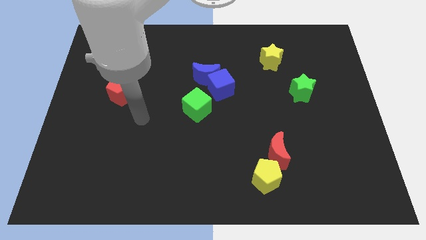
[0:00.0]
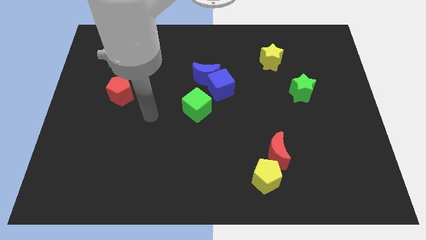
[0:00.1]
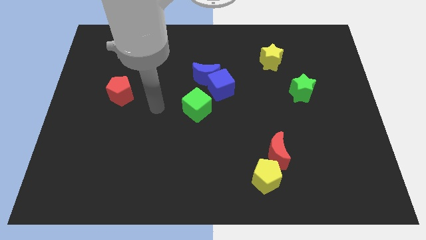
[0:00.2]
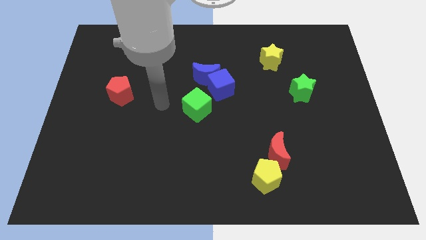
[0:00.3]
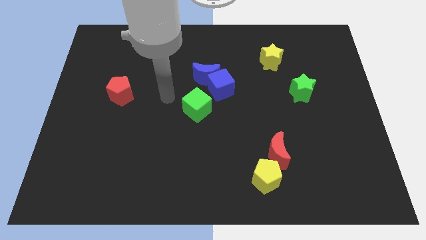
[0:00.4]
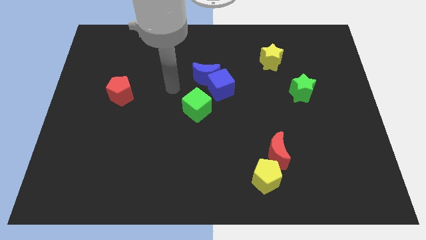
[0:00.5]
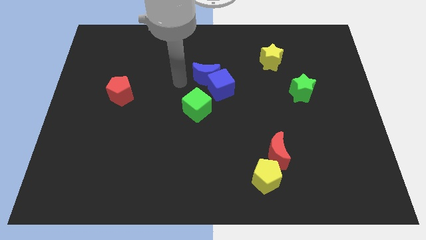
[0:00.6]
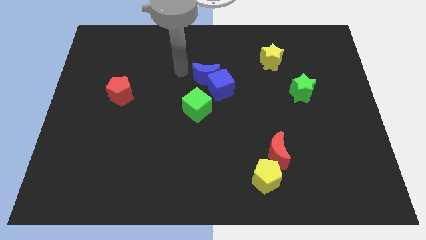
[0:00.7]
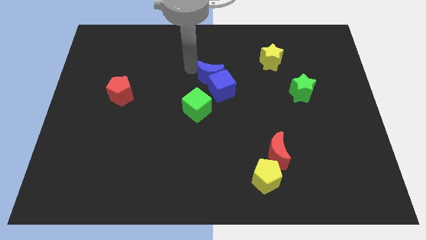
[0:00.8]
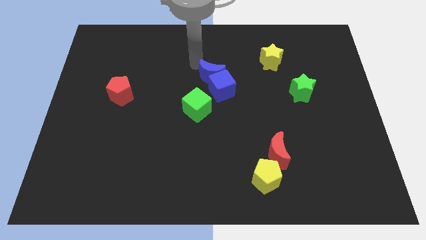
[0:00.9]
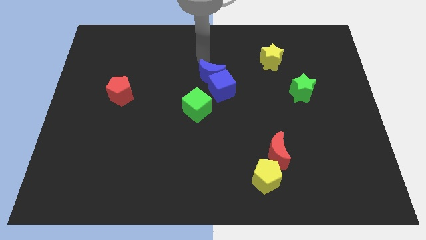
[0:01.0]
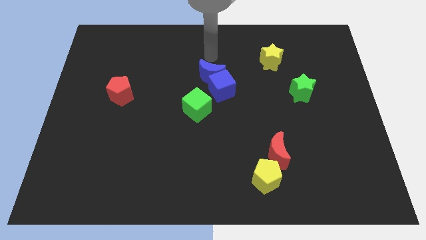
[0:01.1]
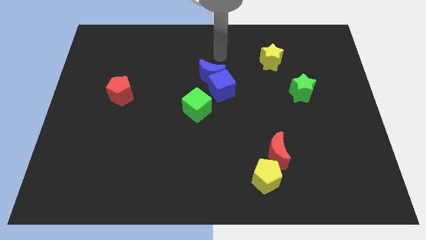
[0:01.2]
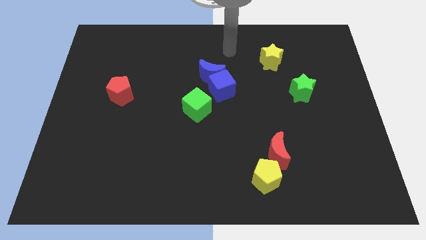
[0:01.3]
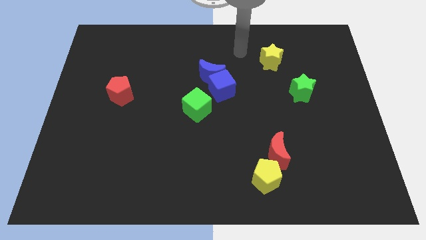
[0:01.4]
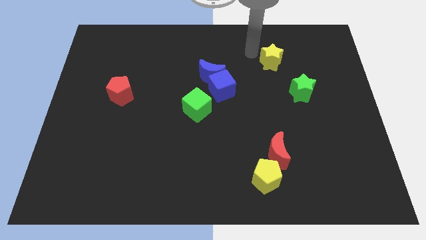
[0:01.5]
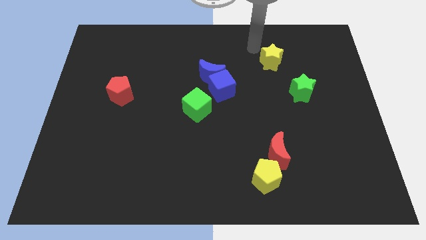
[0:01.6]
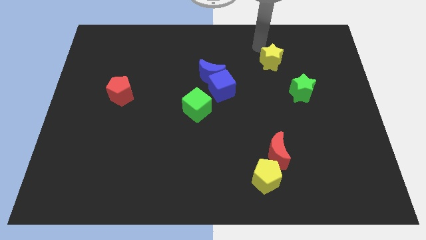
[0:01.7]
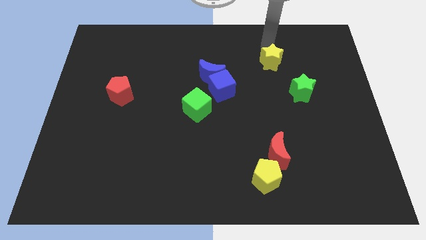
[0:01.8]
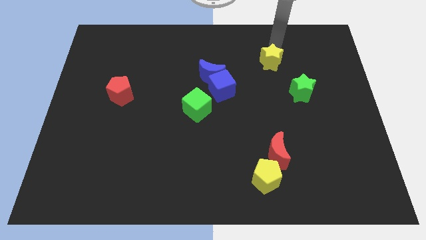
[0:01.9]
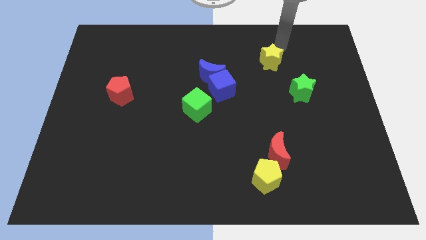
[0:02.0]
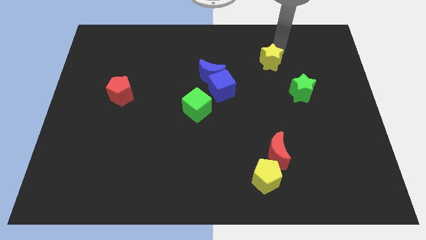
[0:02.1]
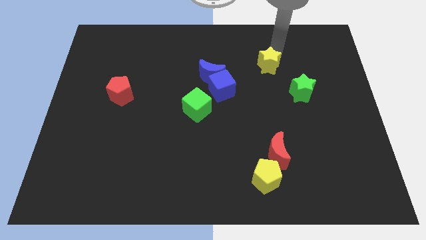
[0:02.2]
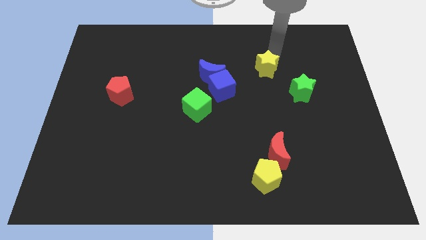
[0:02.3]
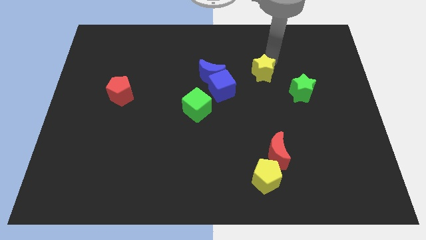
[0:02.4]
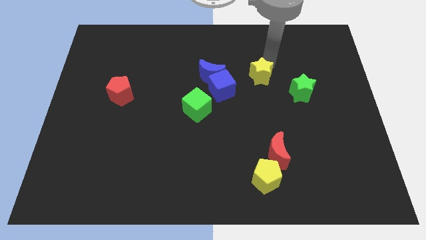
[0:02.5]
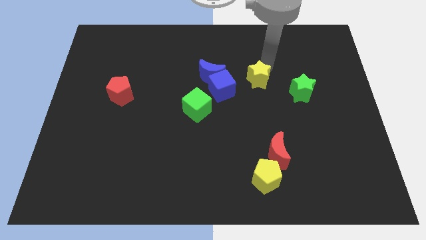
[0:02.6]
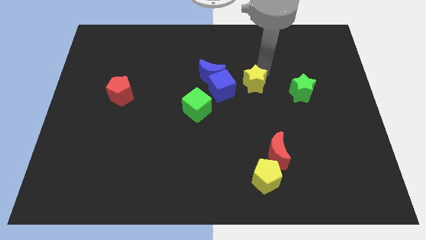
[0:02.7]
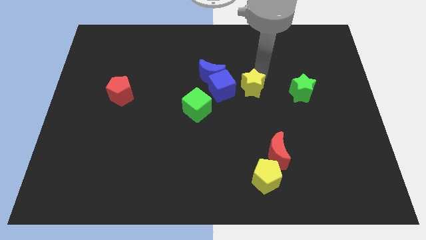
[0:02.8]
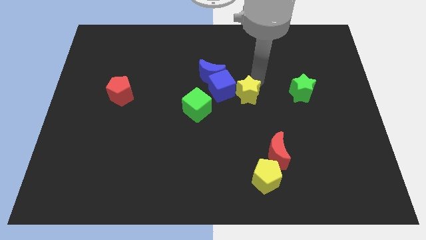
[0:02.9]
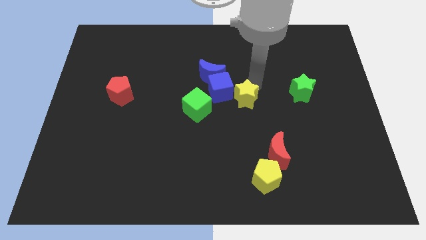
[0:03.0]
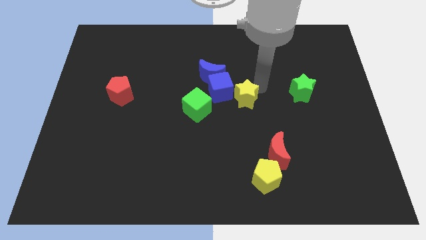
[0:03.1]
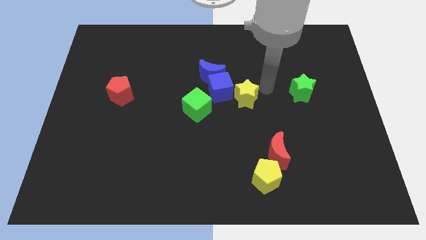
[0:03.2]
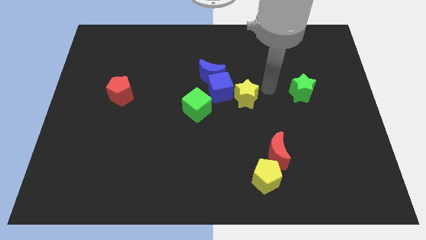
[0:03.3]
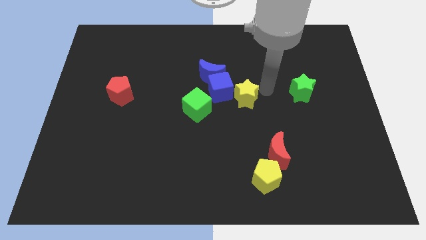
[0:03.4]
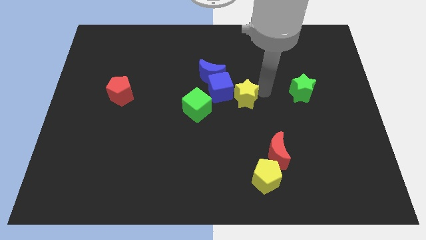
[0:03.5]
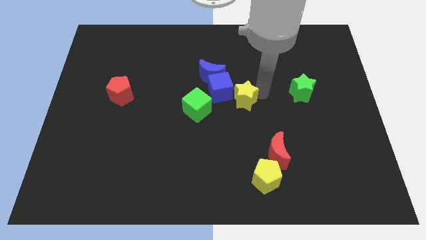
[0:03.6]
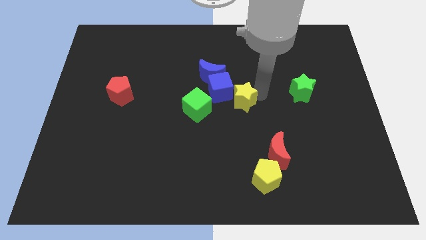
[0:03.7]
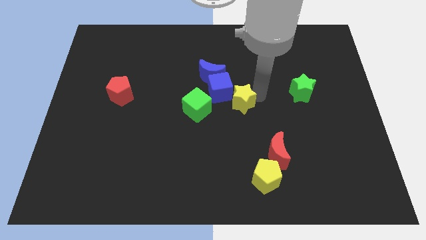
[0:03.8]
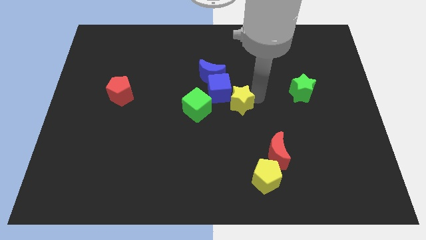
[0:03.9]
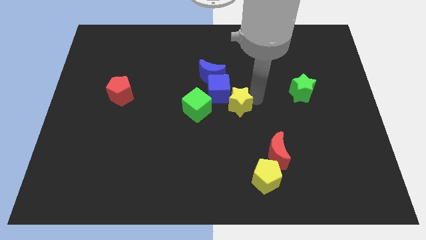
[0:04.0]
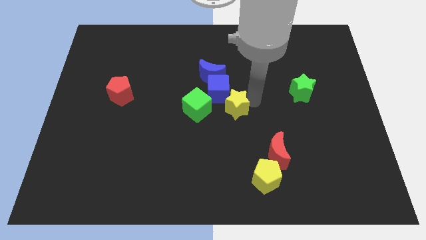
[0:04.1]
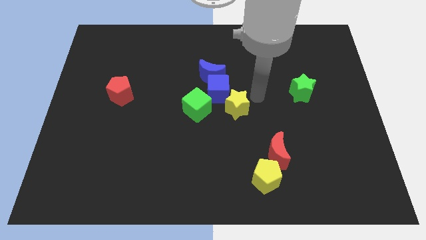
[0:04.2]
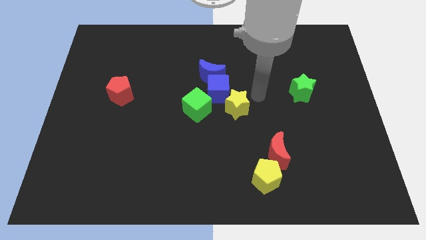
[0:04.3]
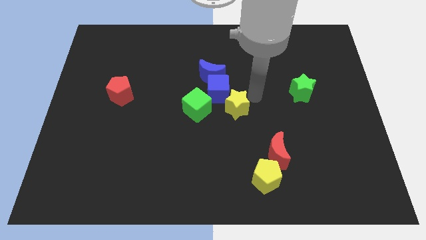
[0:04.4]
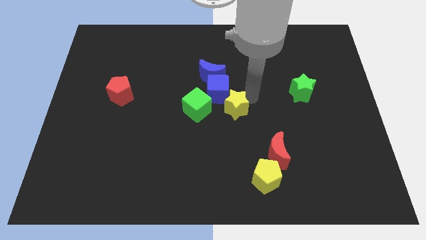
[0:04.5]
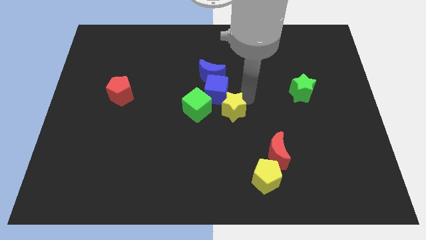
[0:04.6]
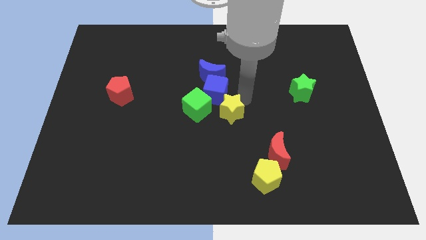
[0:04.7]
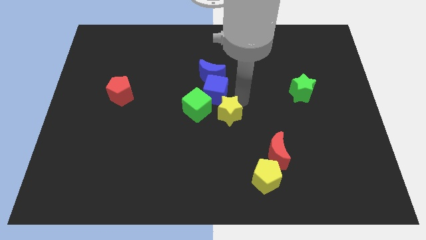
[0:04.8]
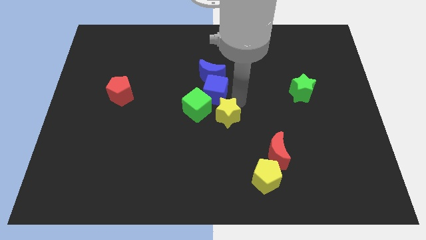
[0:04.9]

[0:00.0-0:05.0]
move the yellow star downwards and left

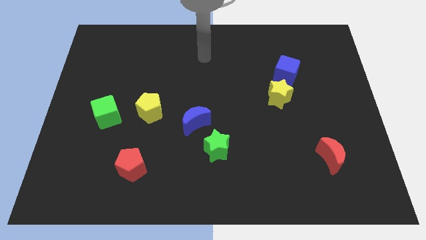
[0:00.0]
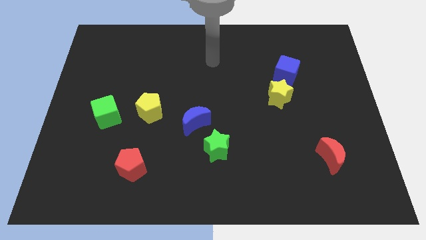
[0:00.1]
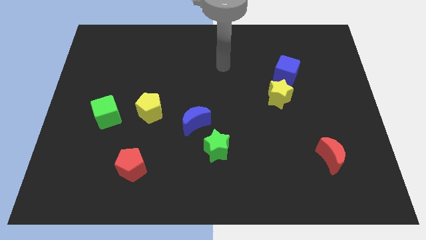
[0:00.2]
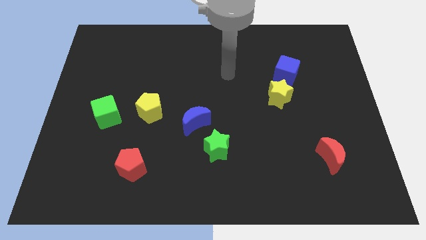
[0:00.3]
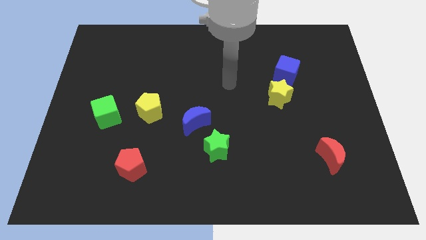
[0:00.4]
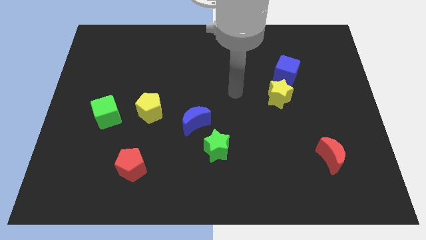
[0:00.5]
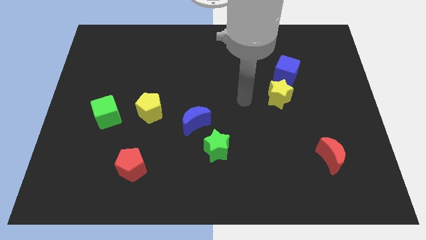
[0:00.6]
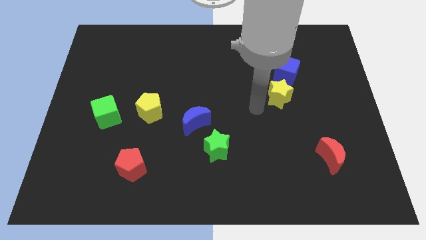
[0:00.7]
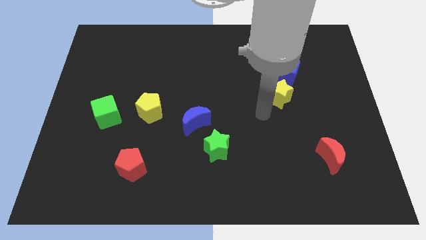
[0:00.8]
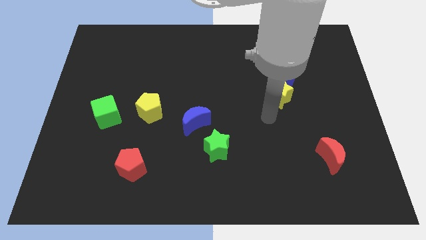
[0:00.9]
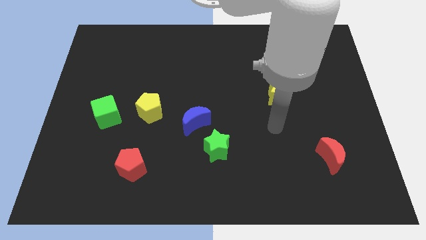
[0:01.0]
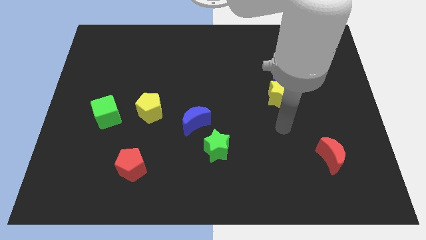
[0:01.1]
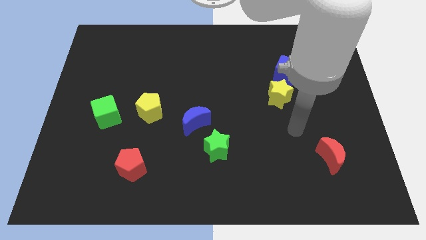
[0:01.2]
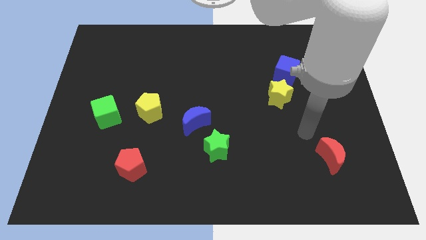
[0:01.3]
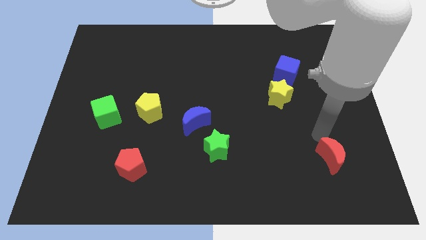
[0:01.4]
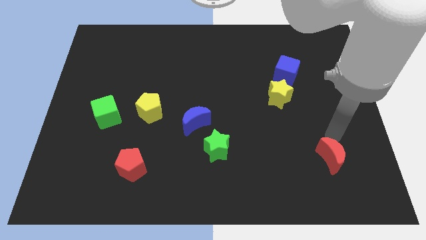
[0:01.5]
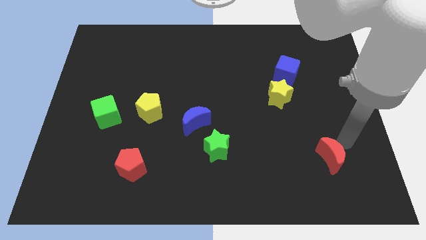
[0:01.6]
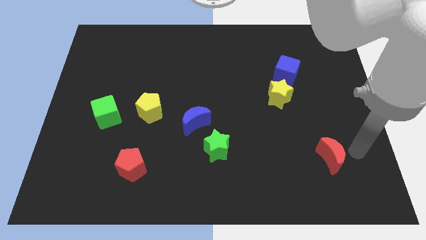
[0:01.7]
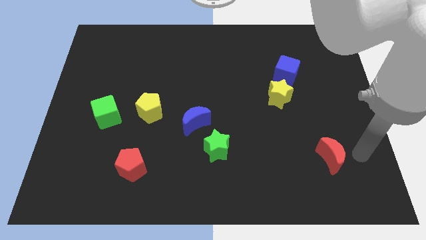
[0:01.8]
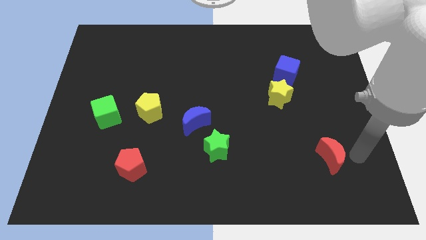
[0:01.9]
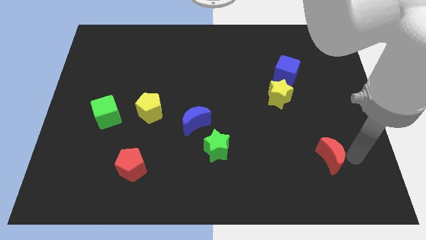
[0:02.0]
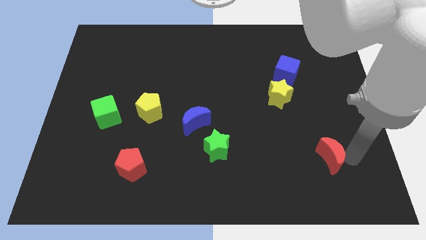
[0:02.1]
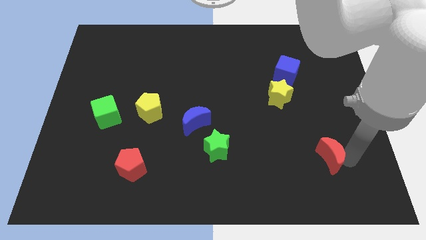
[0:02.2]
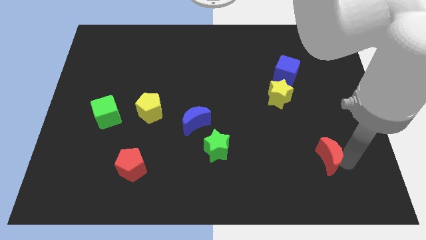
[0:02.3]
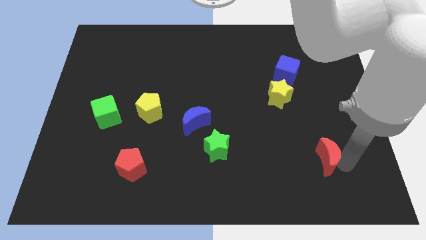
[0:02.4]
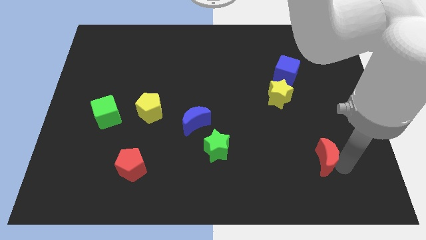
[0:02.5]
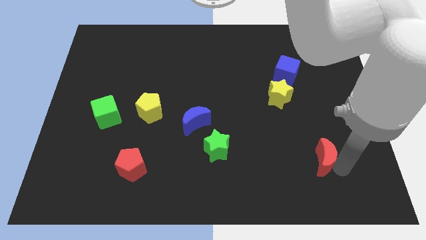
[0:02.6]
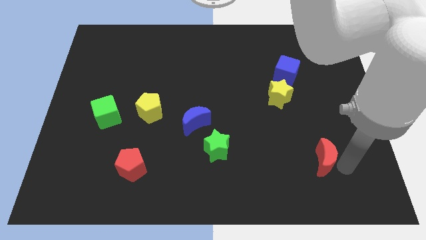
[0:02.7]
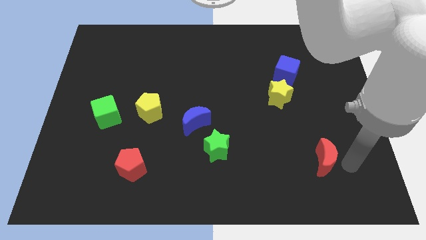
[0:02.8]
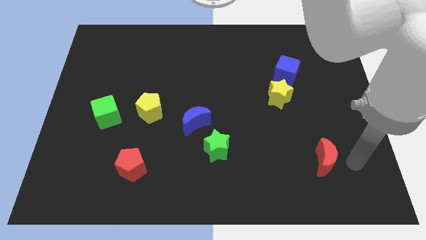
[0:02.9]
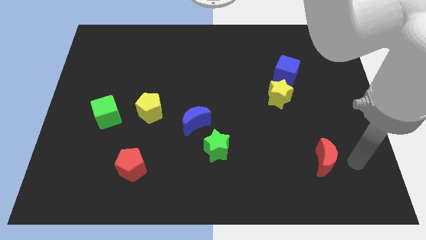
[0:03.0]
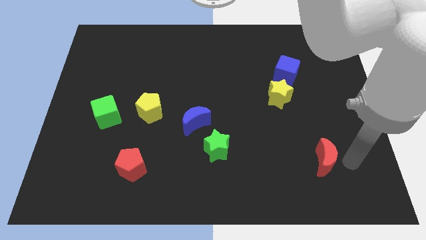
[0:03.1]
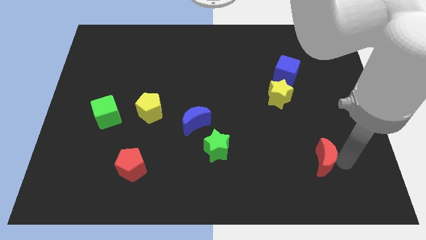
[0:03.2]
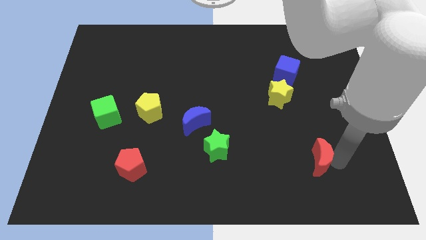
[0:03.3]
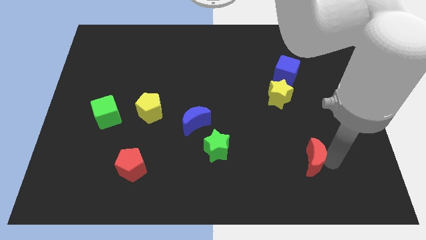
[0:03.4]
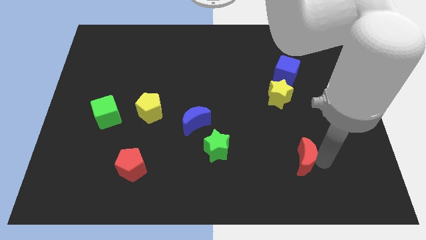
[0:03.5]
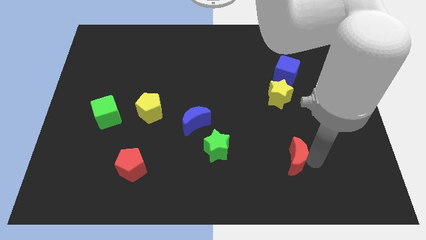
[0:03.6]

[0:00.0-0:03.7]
move the red moon to the left a little
